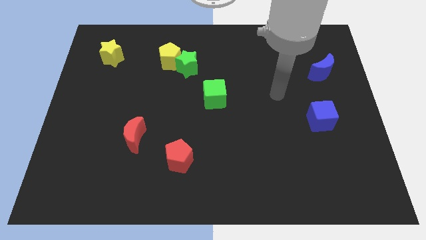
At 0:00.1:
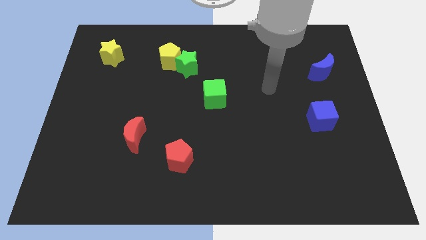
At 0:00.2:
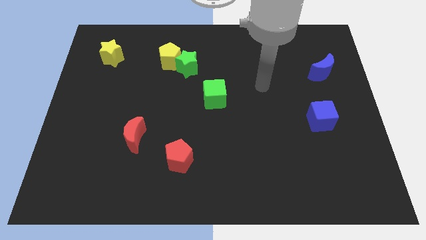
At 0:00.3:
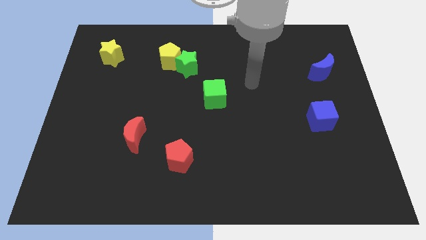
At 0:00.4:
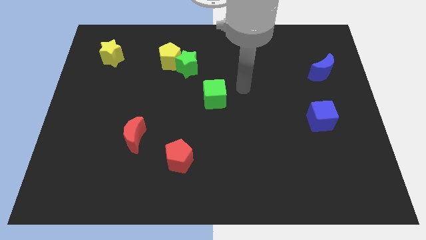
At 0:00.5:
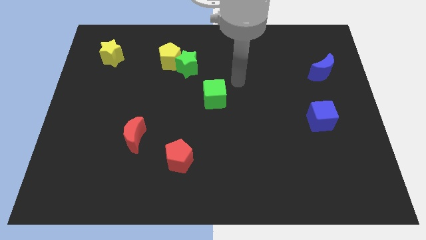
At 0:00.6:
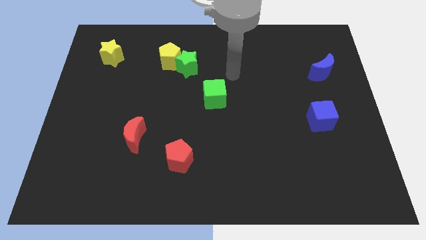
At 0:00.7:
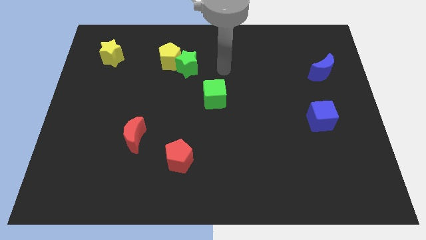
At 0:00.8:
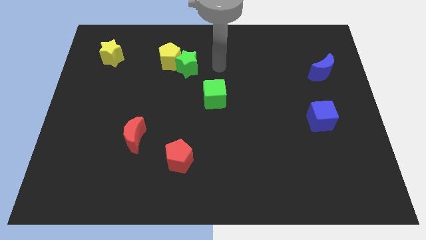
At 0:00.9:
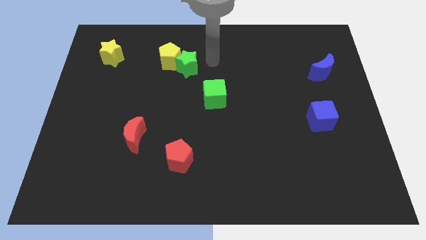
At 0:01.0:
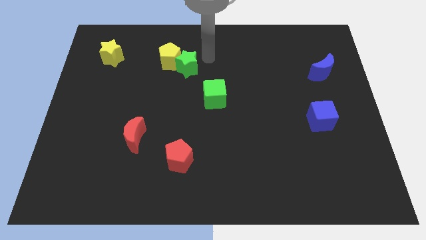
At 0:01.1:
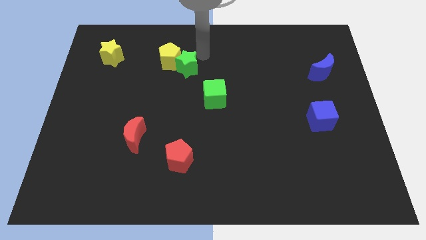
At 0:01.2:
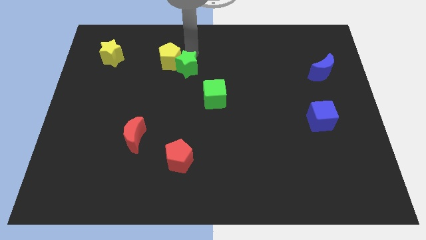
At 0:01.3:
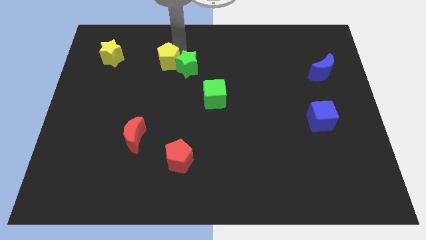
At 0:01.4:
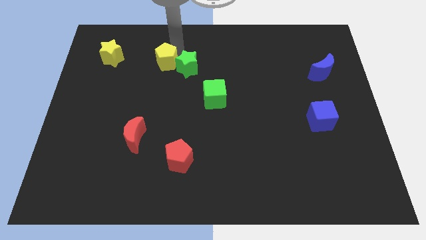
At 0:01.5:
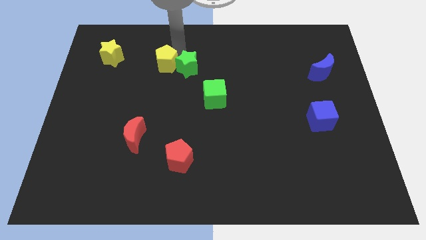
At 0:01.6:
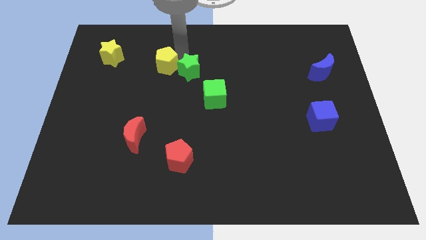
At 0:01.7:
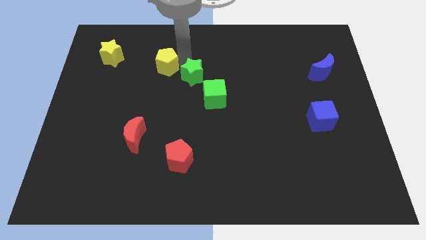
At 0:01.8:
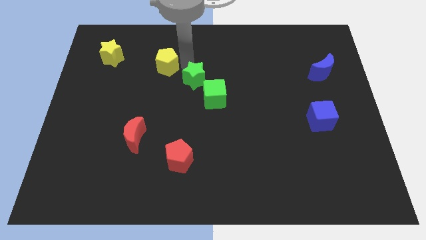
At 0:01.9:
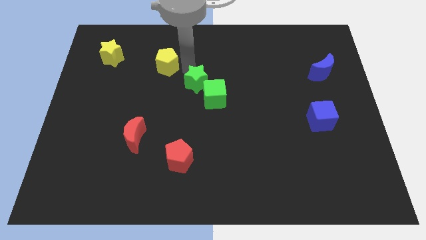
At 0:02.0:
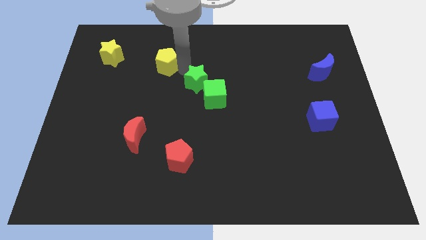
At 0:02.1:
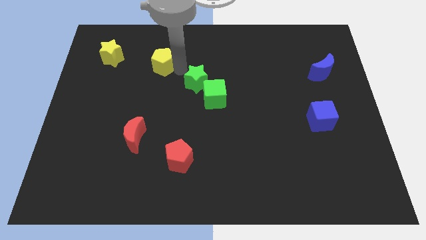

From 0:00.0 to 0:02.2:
pull the green star apart from the yellow pentagon

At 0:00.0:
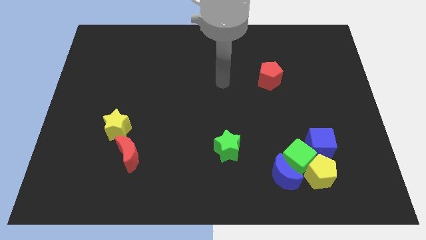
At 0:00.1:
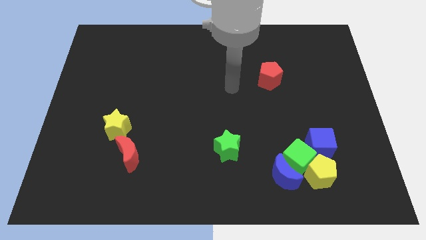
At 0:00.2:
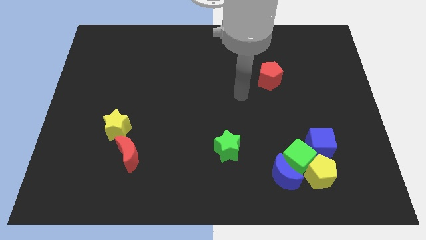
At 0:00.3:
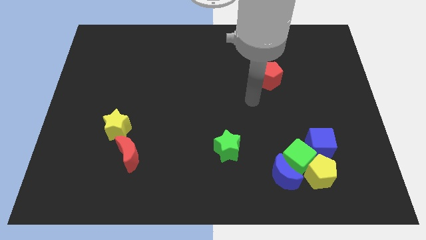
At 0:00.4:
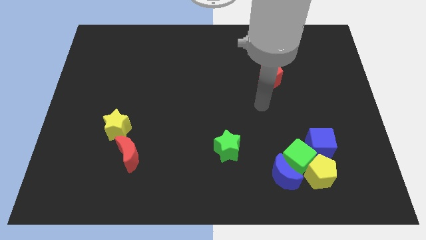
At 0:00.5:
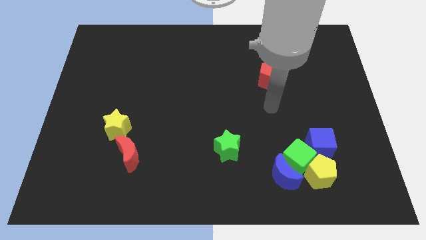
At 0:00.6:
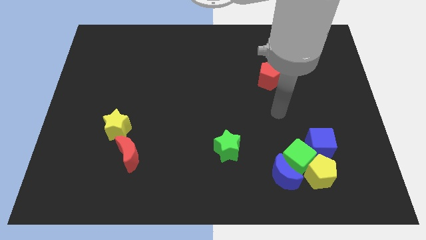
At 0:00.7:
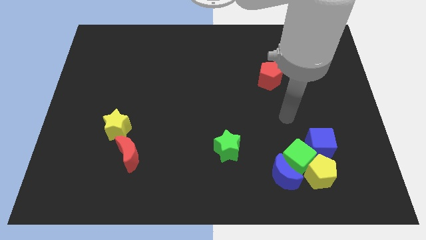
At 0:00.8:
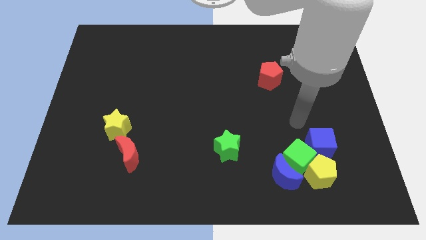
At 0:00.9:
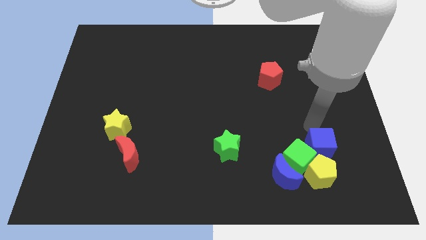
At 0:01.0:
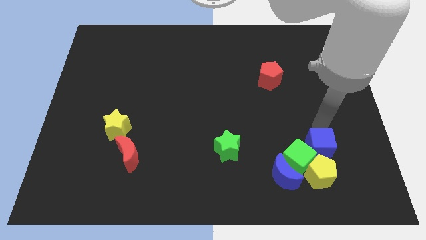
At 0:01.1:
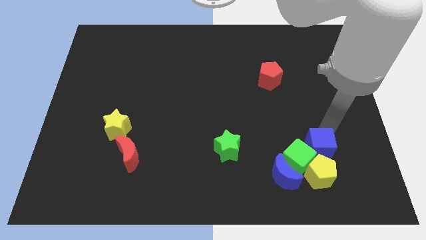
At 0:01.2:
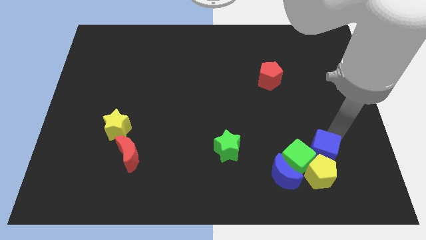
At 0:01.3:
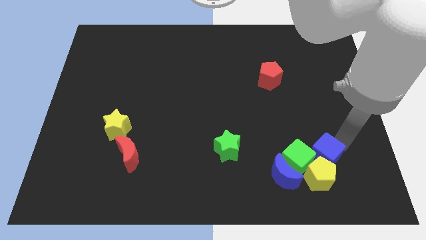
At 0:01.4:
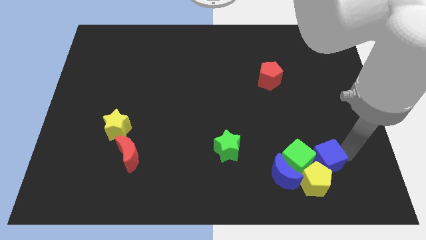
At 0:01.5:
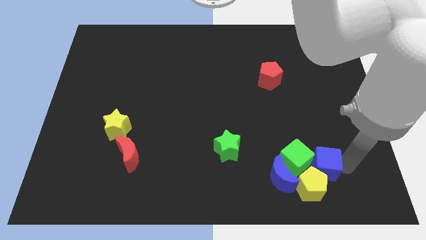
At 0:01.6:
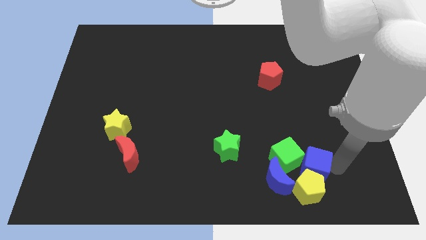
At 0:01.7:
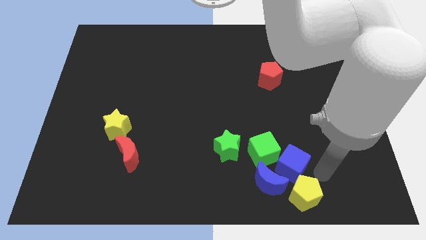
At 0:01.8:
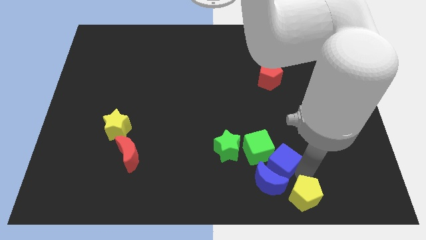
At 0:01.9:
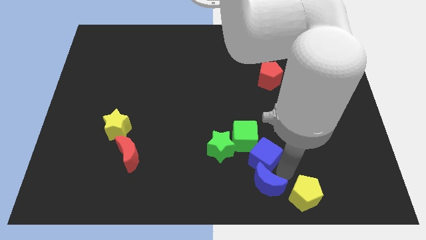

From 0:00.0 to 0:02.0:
move the green cube away from the blue moon, yellow pentagon, and blue cube

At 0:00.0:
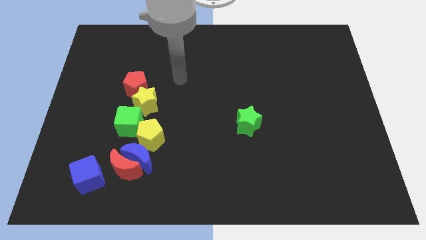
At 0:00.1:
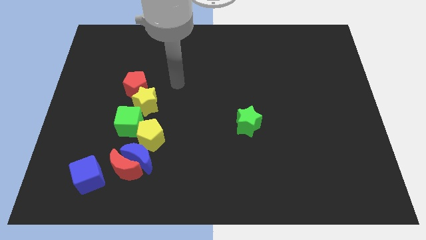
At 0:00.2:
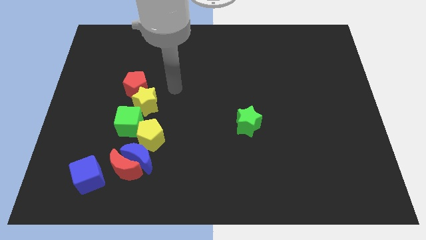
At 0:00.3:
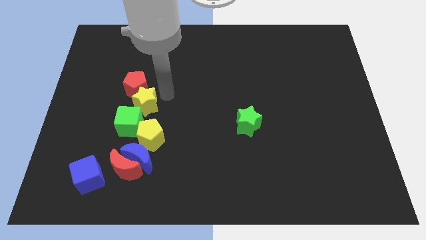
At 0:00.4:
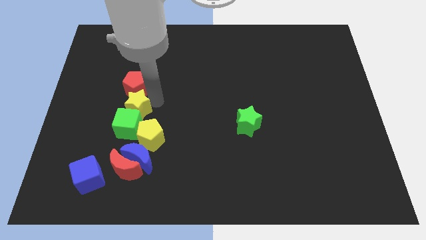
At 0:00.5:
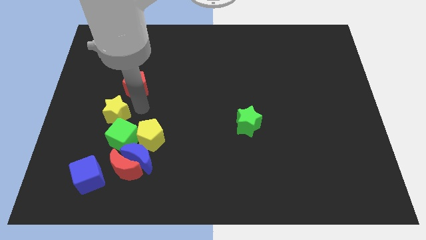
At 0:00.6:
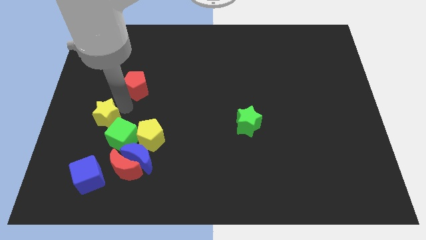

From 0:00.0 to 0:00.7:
move the red pentagon away from the yellow star

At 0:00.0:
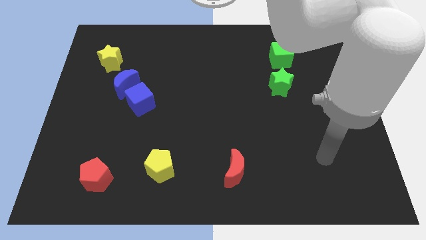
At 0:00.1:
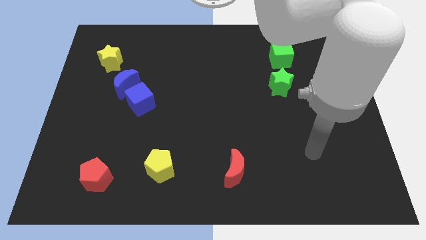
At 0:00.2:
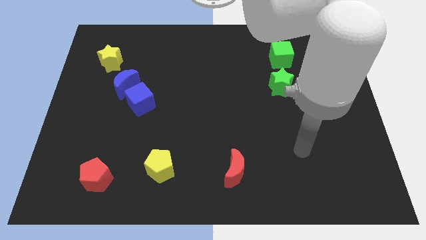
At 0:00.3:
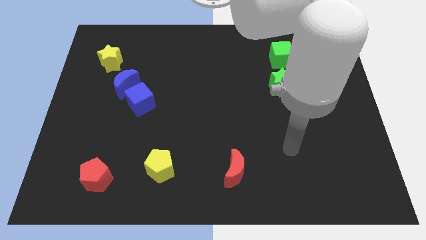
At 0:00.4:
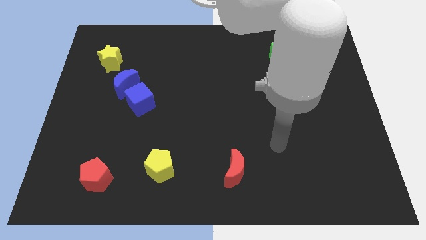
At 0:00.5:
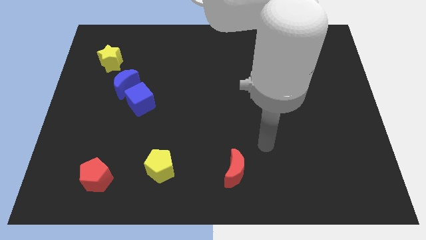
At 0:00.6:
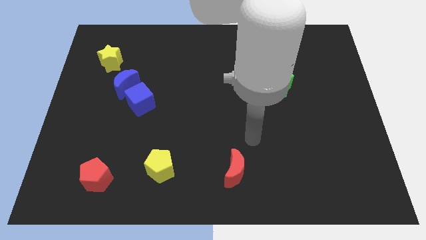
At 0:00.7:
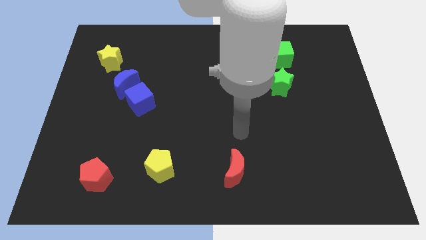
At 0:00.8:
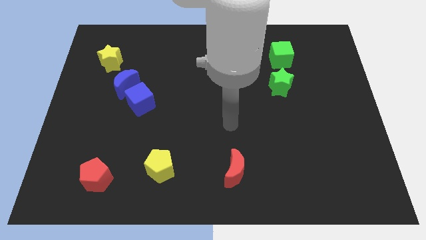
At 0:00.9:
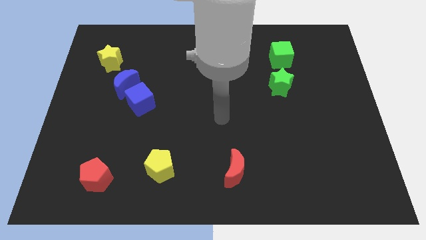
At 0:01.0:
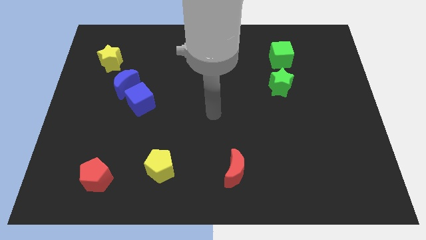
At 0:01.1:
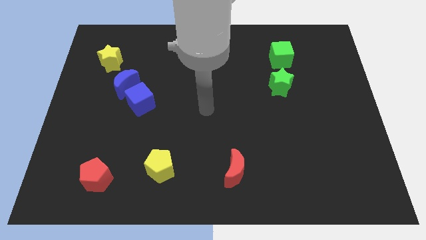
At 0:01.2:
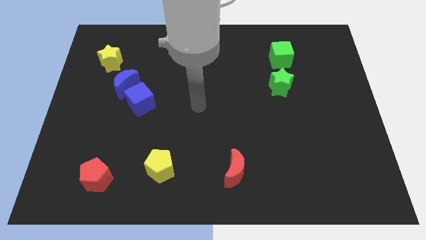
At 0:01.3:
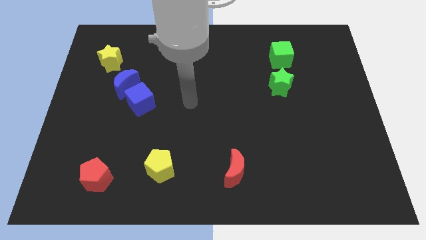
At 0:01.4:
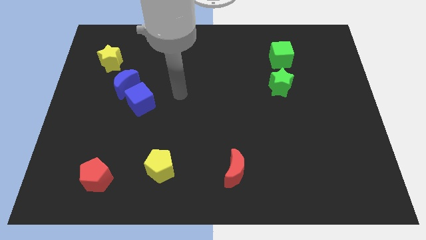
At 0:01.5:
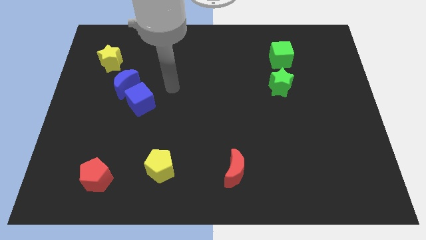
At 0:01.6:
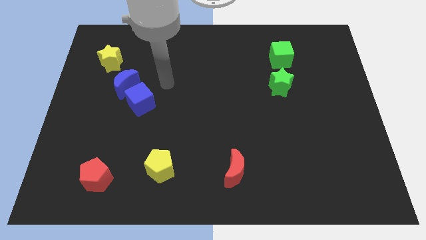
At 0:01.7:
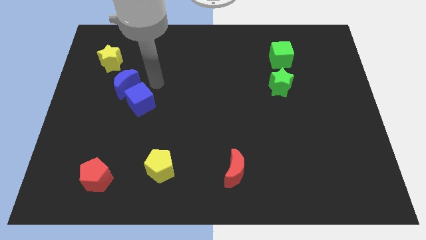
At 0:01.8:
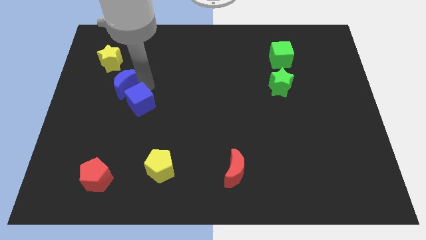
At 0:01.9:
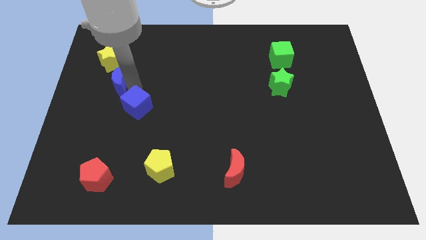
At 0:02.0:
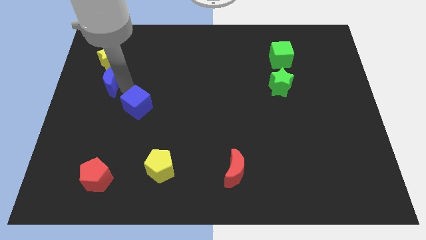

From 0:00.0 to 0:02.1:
move the blue cube away from the blue moon

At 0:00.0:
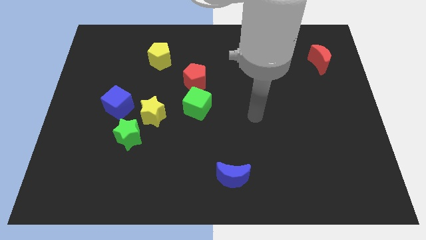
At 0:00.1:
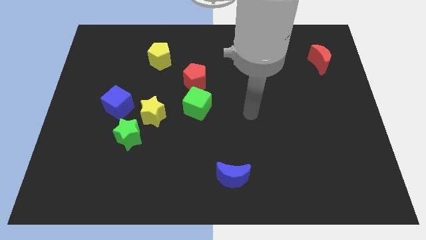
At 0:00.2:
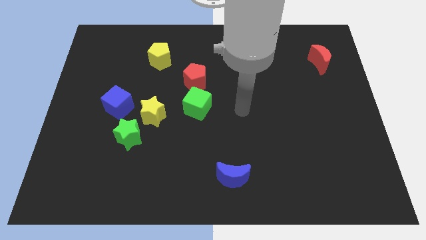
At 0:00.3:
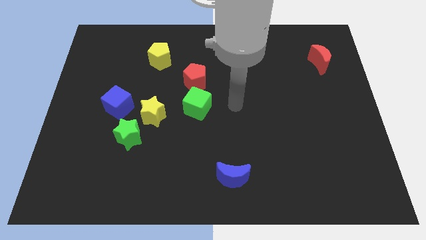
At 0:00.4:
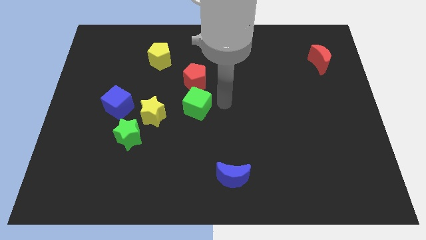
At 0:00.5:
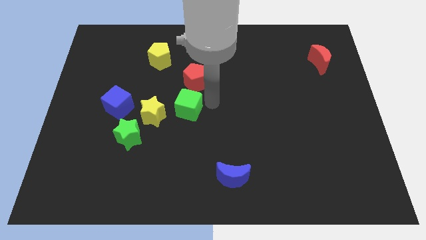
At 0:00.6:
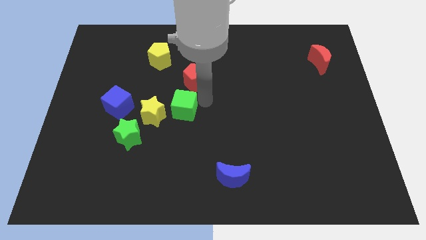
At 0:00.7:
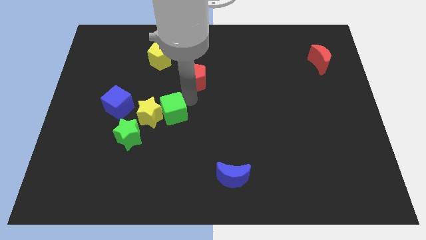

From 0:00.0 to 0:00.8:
separate the red pentagon from the green cube

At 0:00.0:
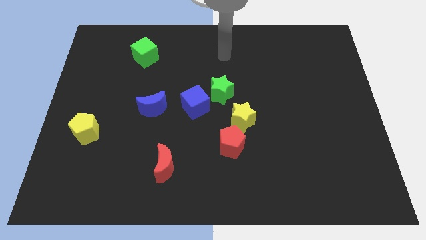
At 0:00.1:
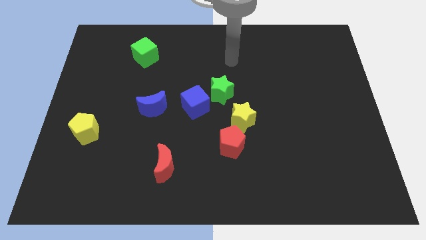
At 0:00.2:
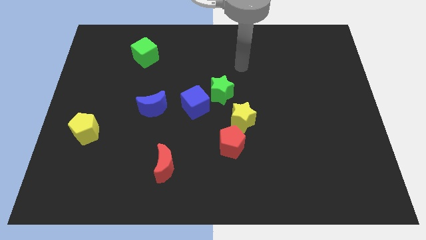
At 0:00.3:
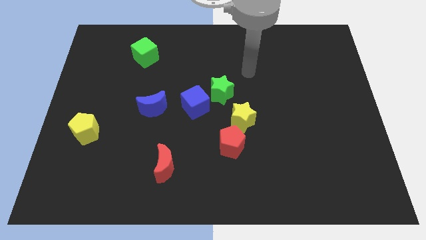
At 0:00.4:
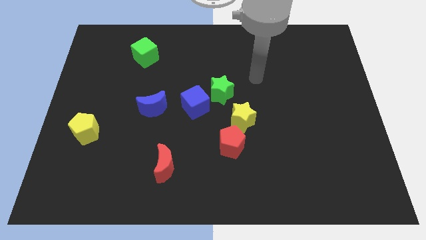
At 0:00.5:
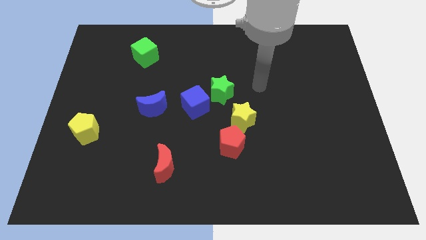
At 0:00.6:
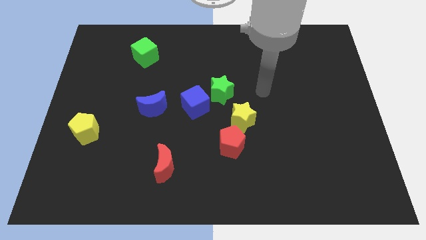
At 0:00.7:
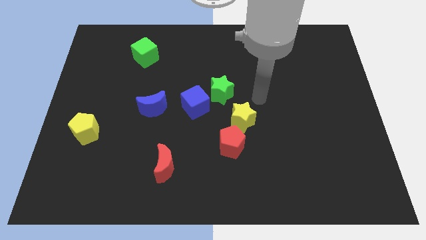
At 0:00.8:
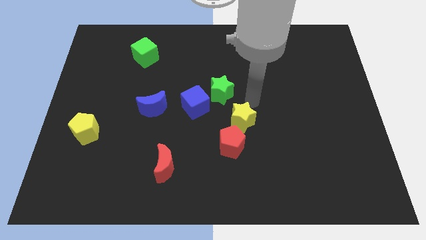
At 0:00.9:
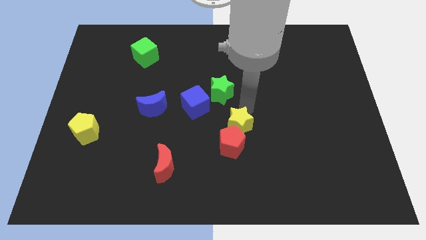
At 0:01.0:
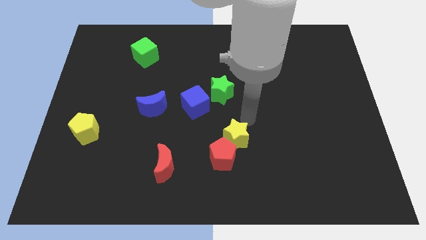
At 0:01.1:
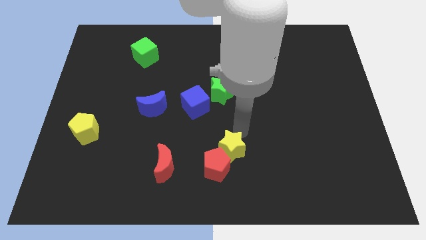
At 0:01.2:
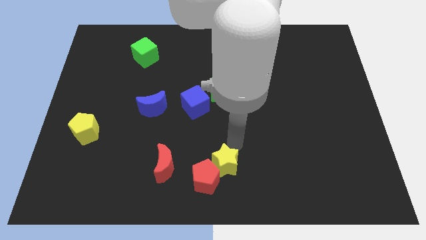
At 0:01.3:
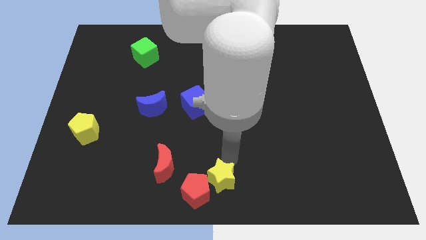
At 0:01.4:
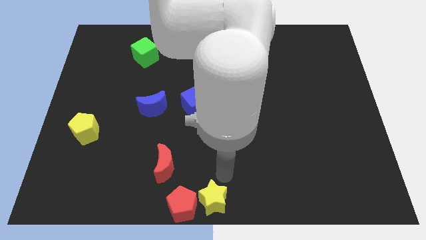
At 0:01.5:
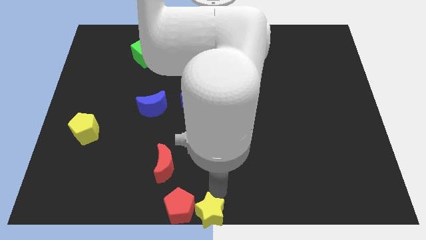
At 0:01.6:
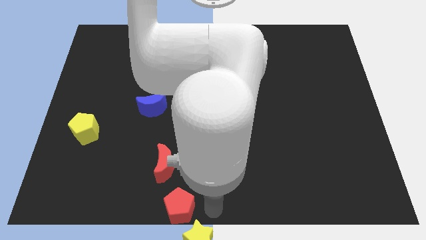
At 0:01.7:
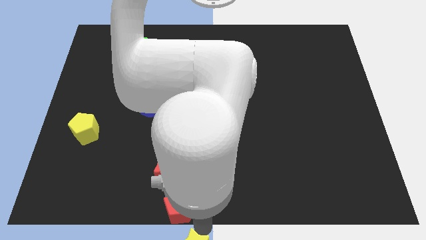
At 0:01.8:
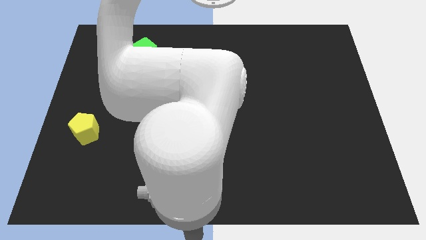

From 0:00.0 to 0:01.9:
pull the red pentagon apart from the yellow star
